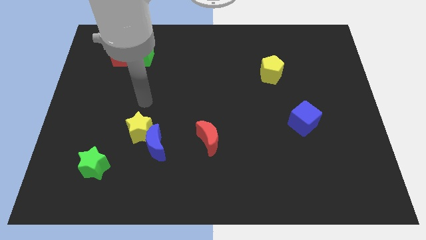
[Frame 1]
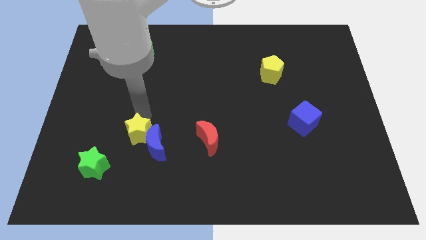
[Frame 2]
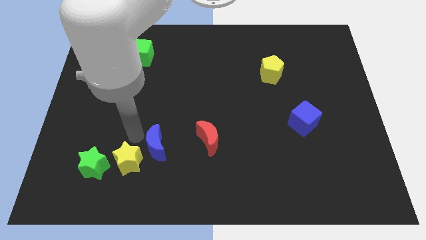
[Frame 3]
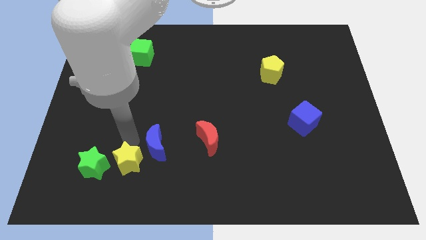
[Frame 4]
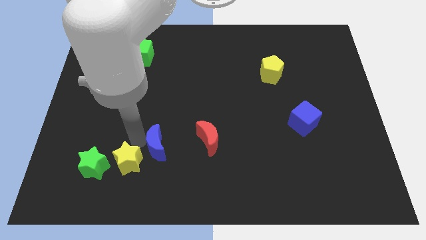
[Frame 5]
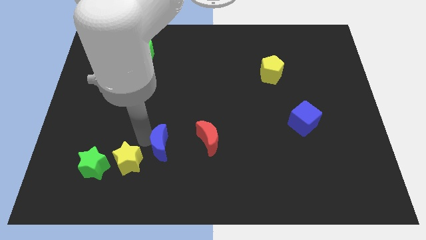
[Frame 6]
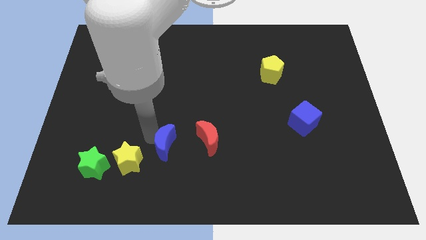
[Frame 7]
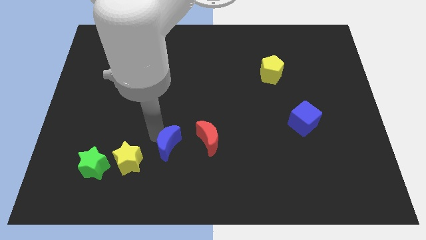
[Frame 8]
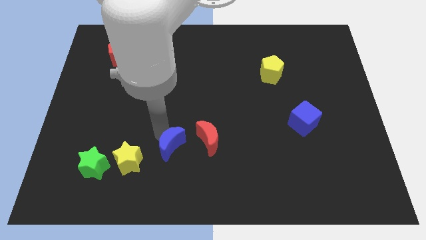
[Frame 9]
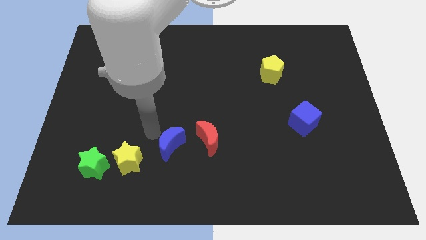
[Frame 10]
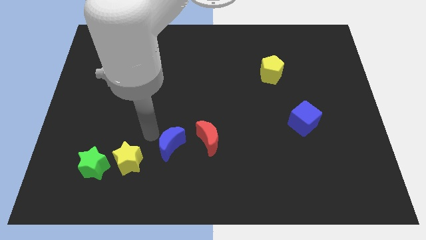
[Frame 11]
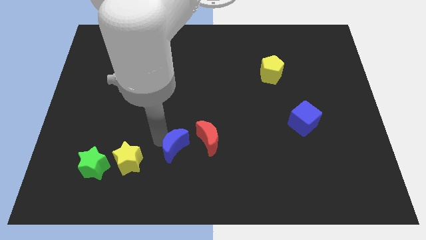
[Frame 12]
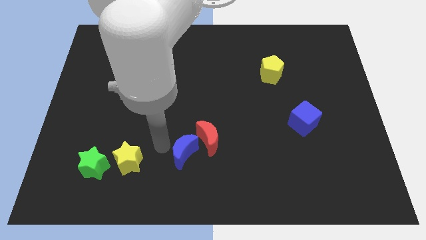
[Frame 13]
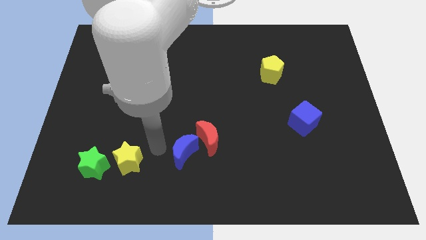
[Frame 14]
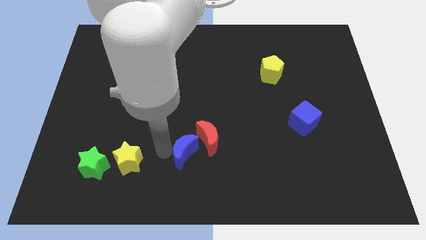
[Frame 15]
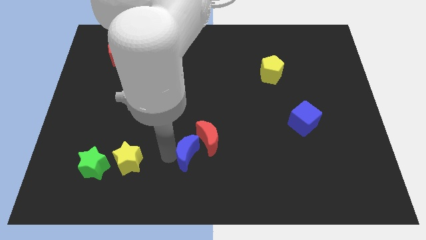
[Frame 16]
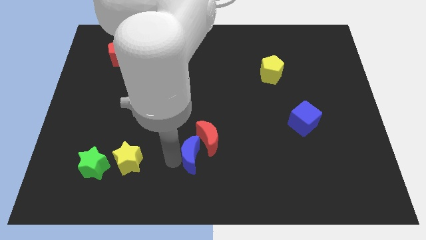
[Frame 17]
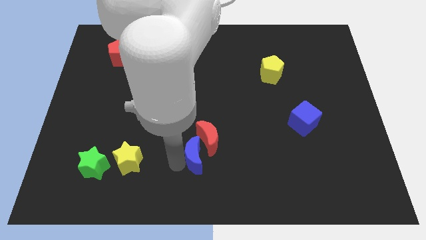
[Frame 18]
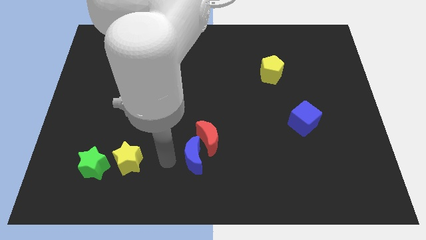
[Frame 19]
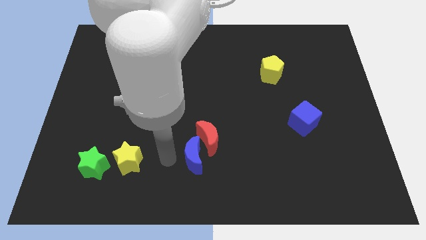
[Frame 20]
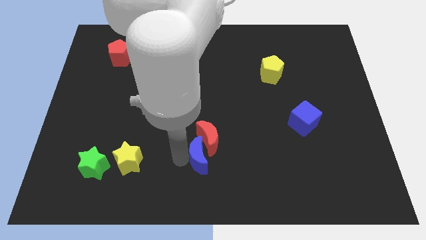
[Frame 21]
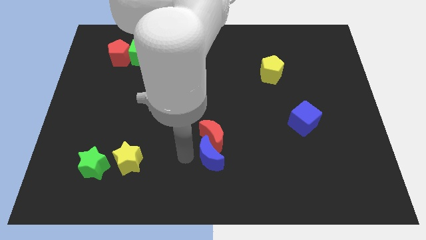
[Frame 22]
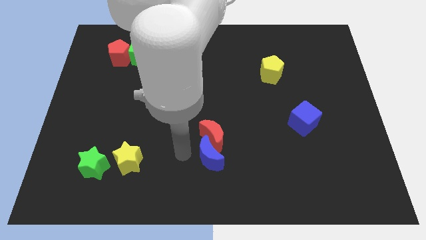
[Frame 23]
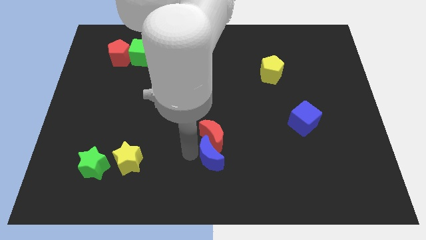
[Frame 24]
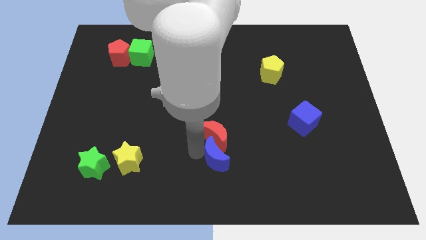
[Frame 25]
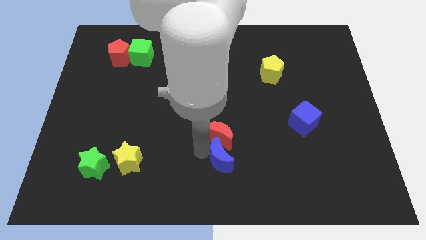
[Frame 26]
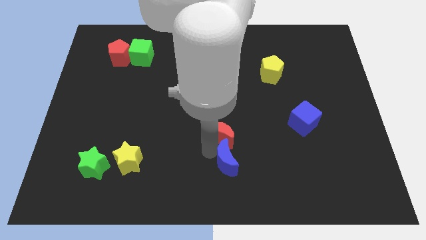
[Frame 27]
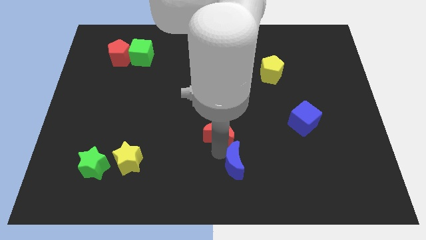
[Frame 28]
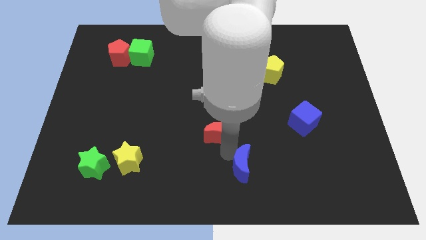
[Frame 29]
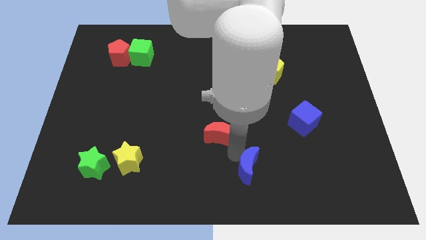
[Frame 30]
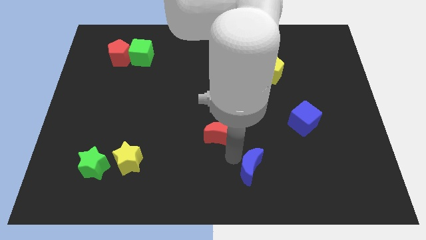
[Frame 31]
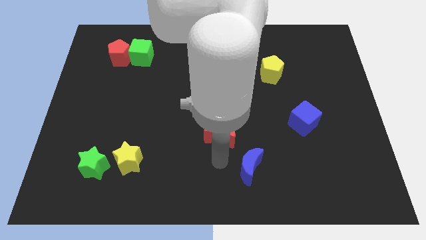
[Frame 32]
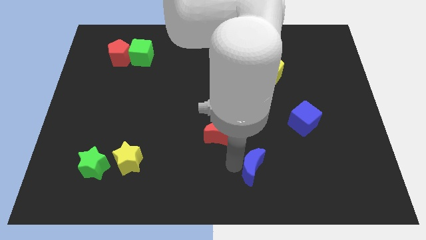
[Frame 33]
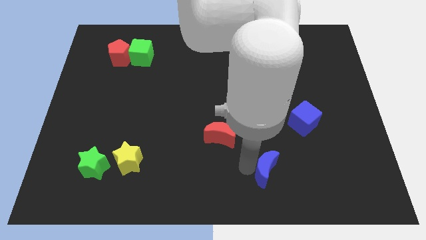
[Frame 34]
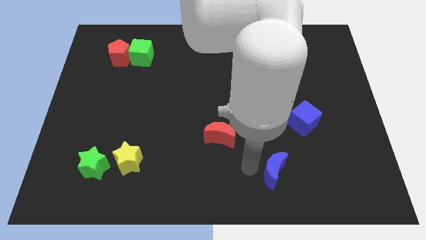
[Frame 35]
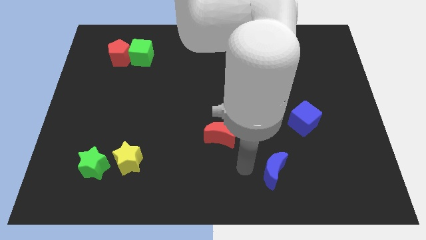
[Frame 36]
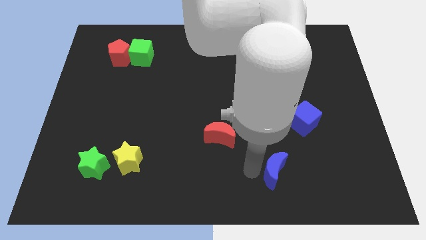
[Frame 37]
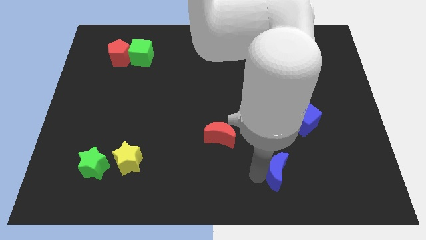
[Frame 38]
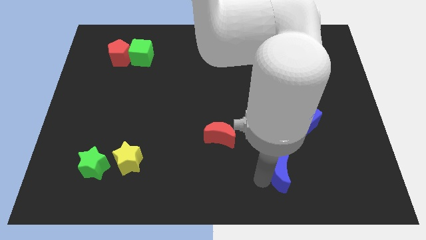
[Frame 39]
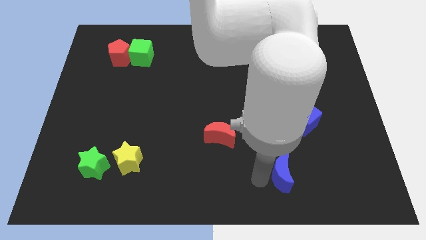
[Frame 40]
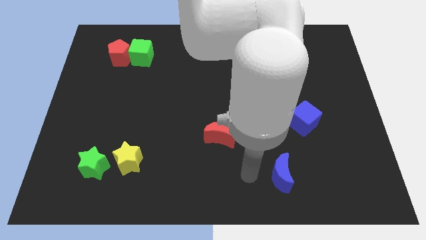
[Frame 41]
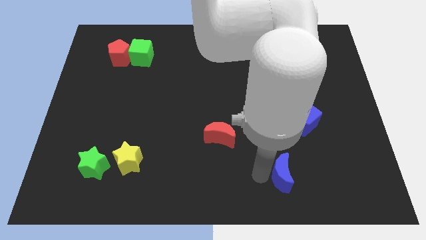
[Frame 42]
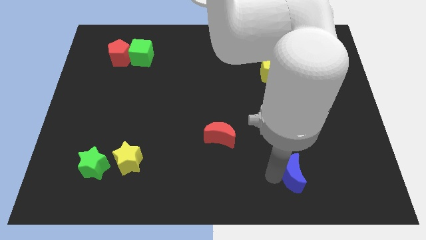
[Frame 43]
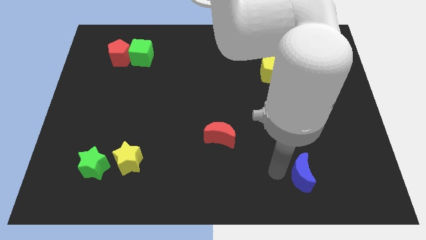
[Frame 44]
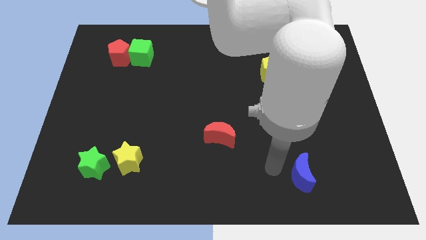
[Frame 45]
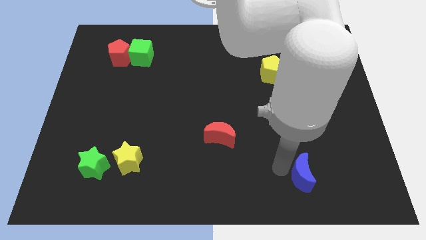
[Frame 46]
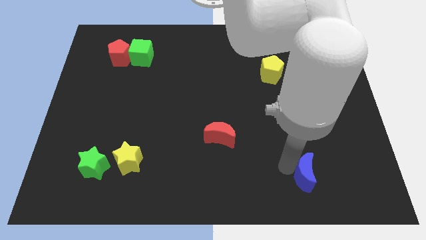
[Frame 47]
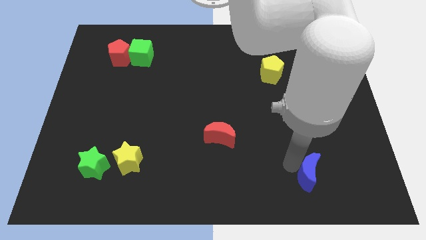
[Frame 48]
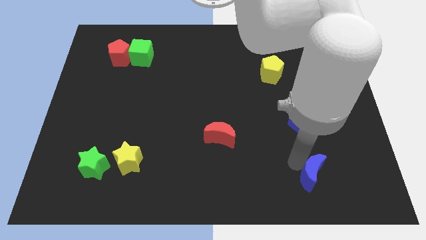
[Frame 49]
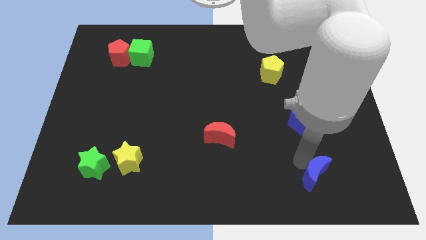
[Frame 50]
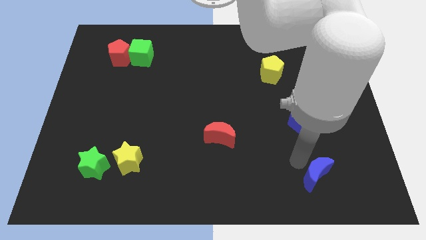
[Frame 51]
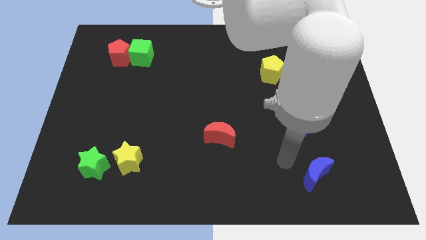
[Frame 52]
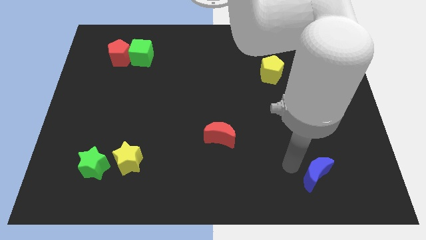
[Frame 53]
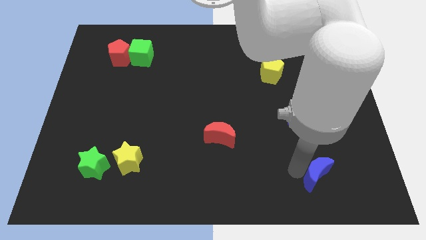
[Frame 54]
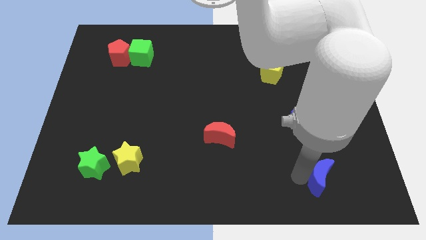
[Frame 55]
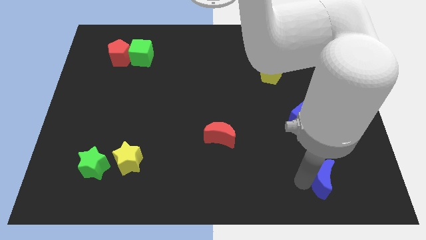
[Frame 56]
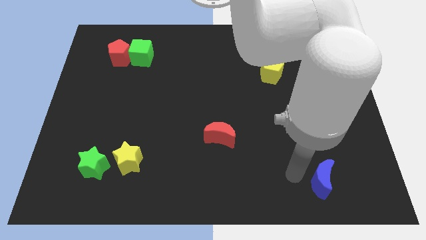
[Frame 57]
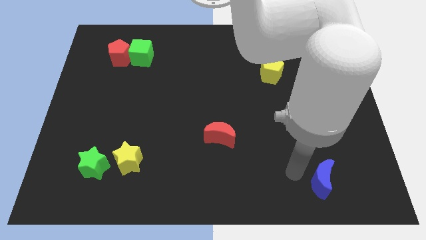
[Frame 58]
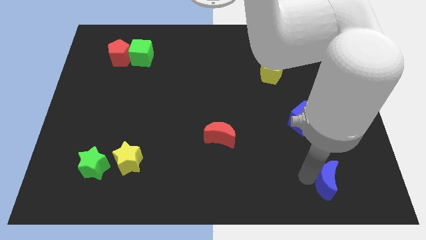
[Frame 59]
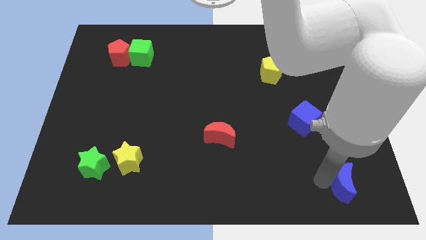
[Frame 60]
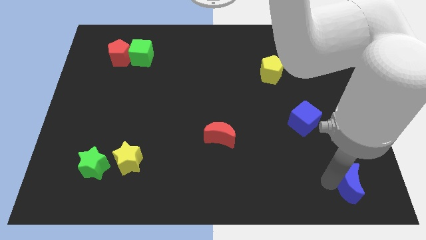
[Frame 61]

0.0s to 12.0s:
slide the blue moon to the lower right corner

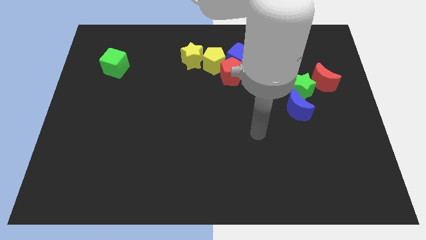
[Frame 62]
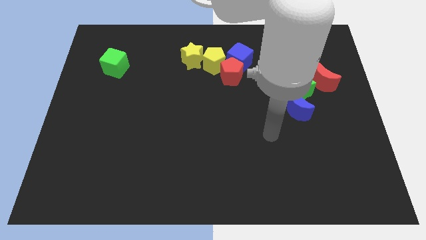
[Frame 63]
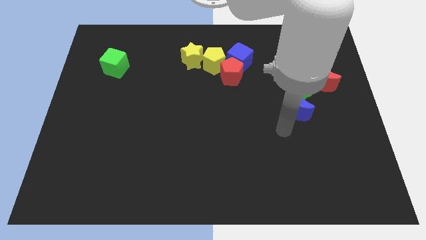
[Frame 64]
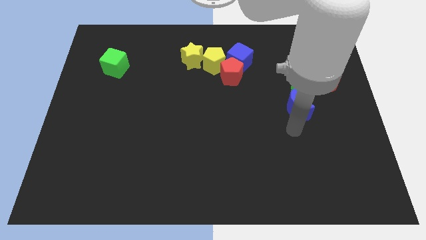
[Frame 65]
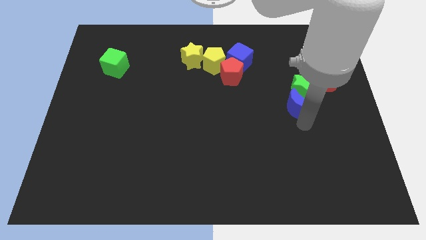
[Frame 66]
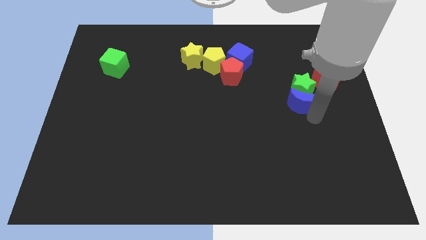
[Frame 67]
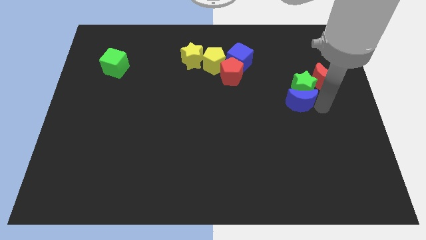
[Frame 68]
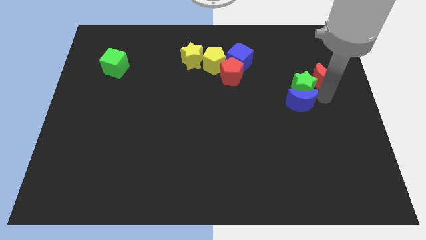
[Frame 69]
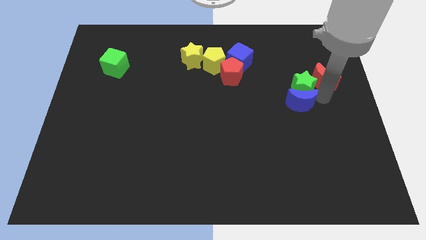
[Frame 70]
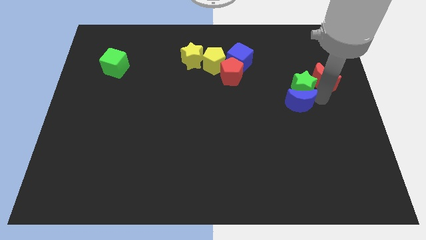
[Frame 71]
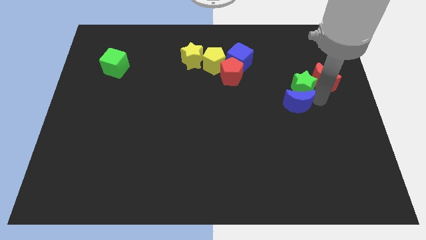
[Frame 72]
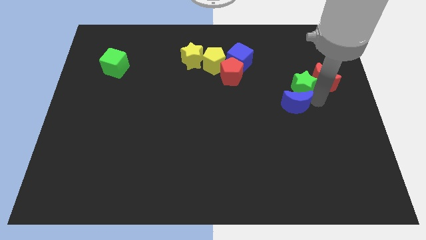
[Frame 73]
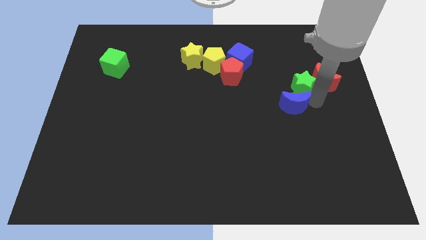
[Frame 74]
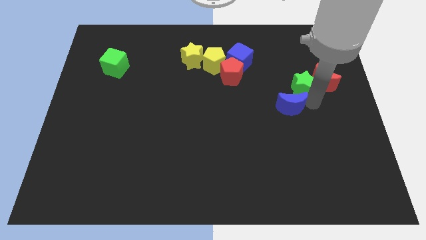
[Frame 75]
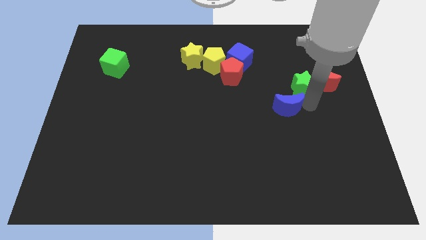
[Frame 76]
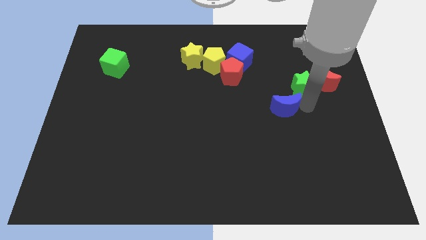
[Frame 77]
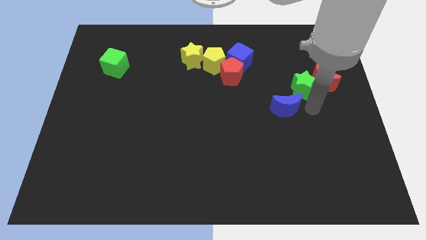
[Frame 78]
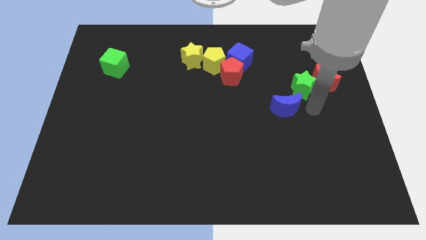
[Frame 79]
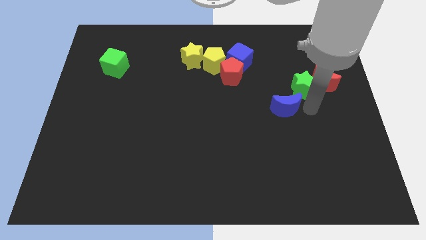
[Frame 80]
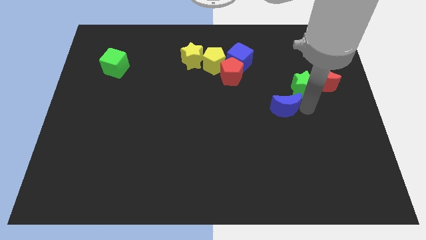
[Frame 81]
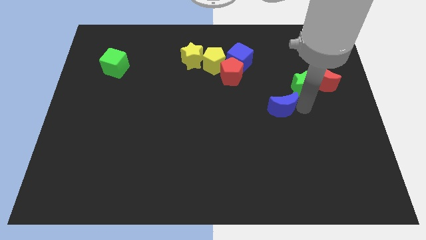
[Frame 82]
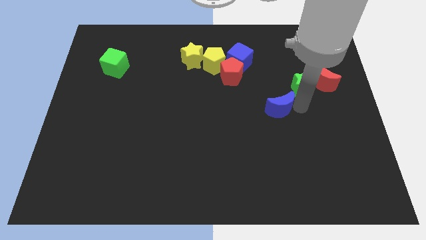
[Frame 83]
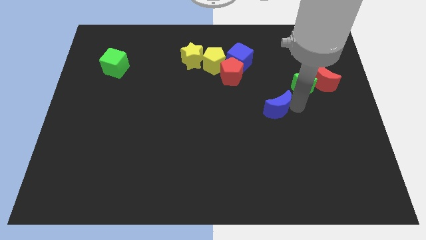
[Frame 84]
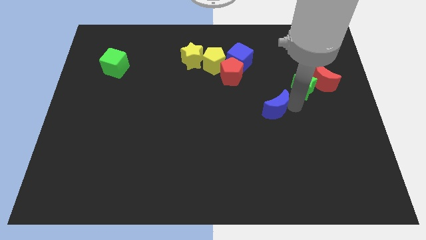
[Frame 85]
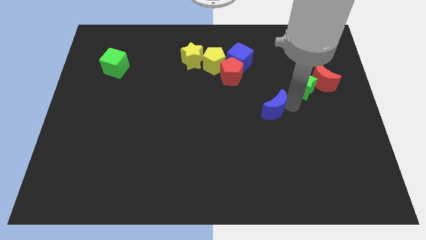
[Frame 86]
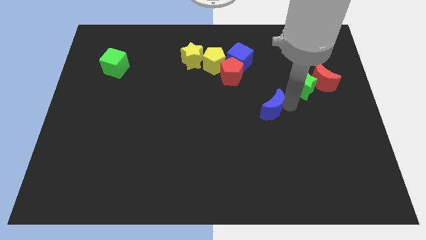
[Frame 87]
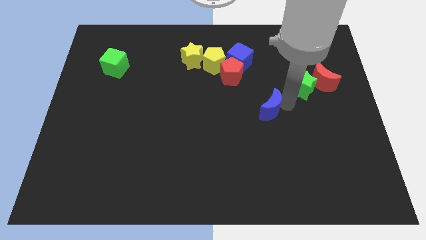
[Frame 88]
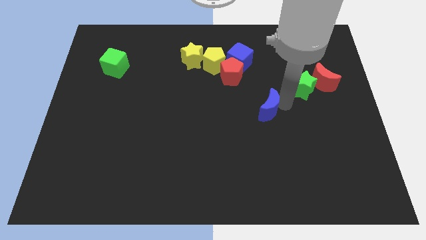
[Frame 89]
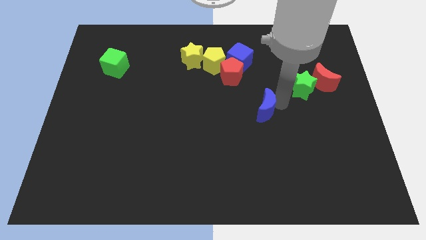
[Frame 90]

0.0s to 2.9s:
push the blue moon to the middle
